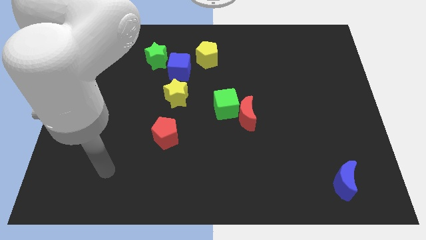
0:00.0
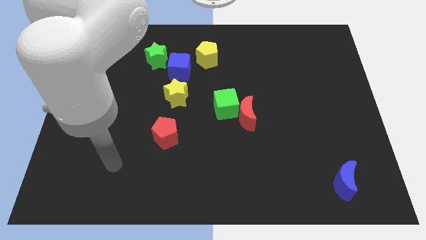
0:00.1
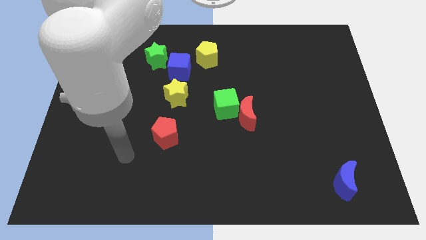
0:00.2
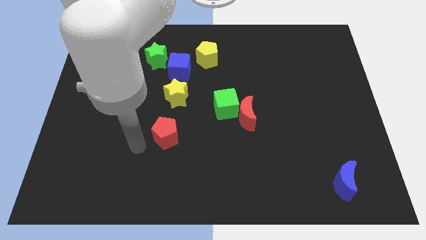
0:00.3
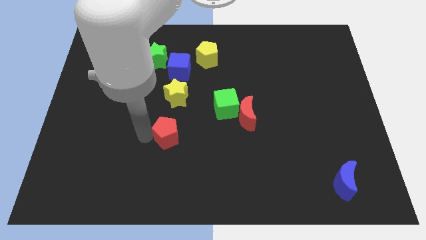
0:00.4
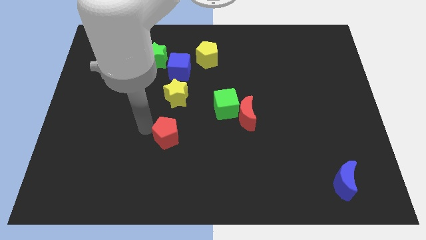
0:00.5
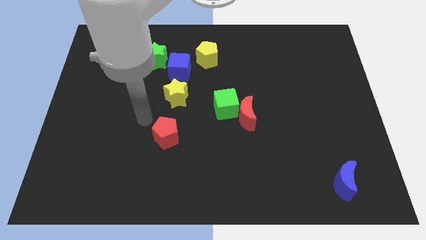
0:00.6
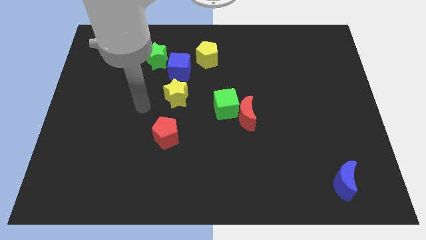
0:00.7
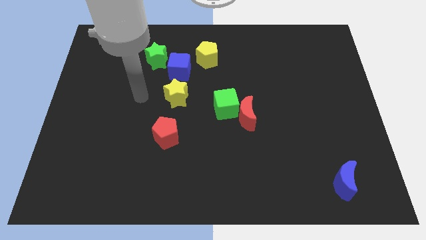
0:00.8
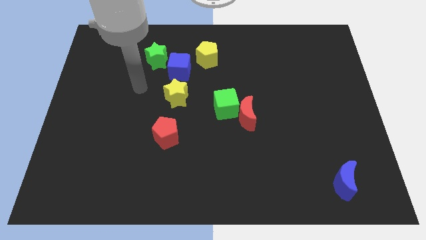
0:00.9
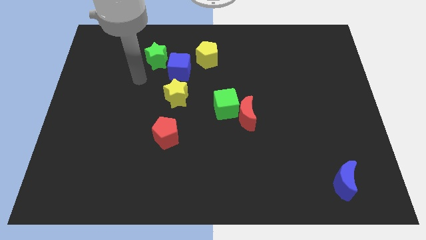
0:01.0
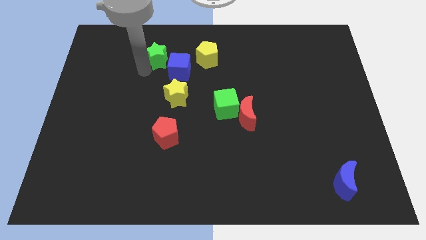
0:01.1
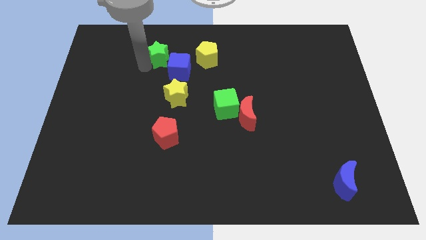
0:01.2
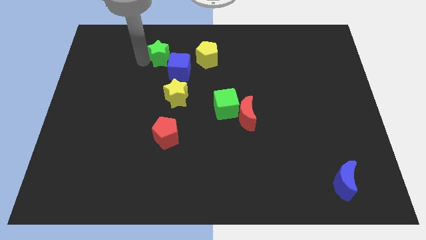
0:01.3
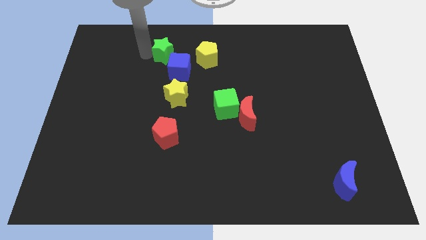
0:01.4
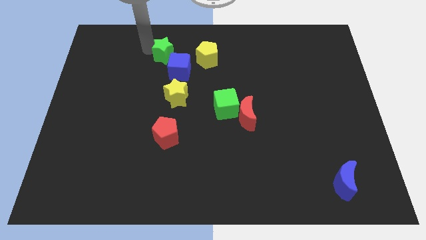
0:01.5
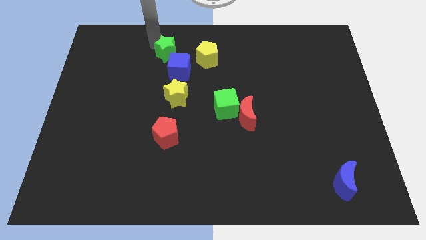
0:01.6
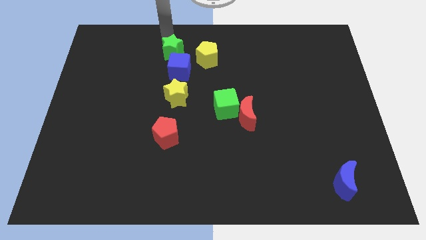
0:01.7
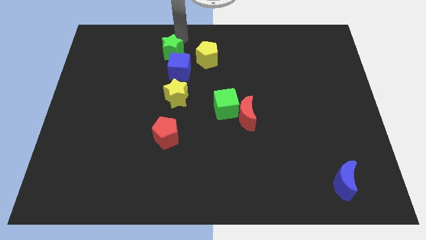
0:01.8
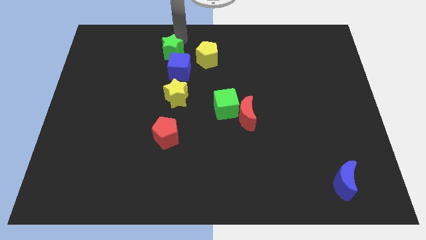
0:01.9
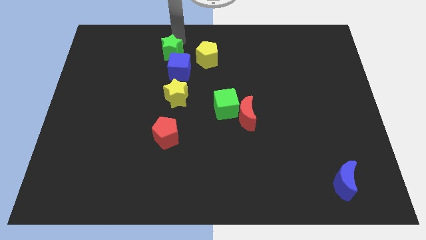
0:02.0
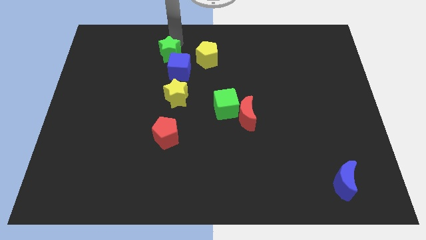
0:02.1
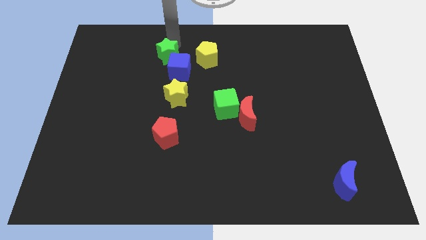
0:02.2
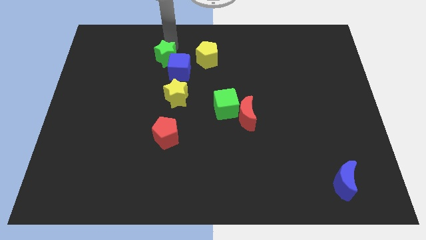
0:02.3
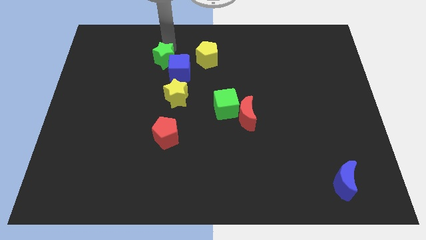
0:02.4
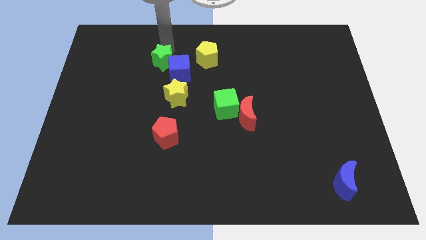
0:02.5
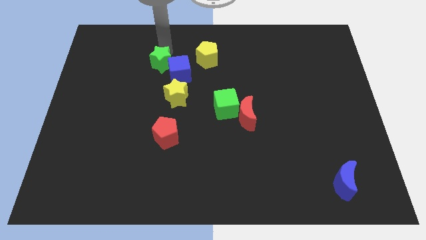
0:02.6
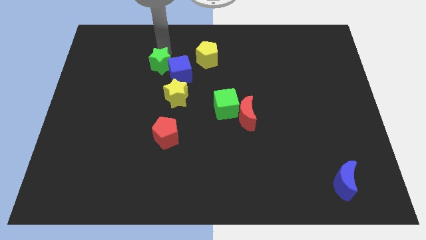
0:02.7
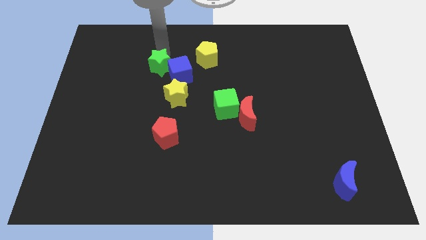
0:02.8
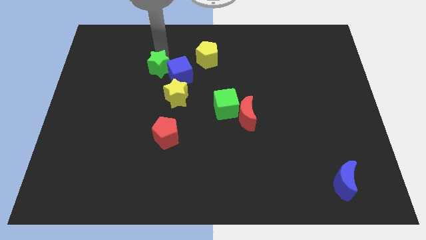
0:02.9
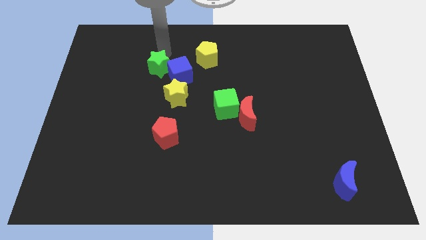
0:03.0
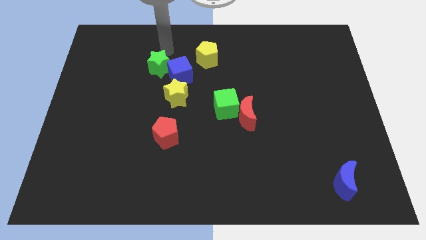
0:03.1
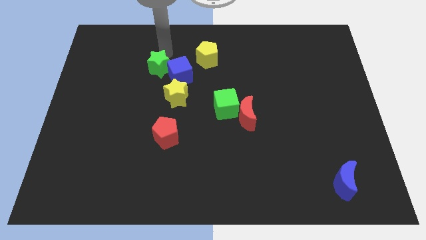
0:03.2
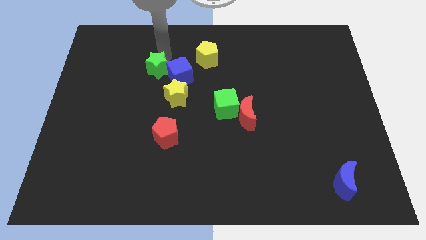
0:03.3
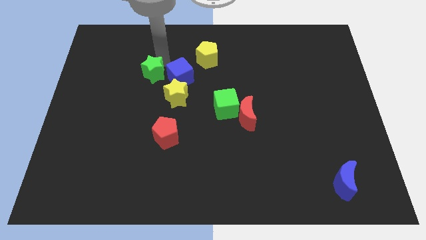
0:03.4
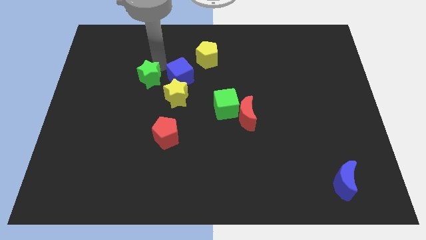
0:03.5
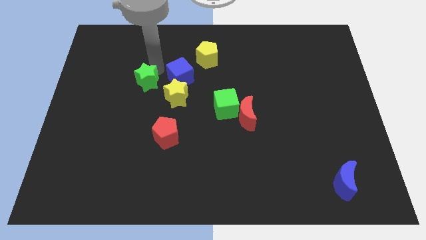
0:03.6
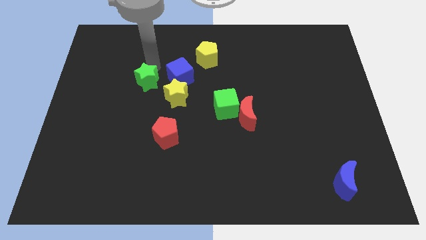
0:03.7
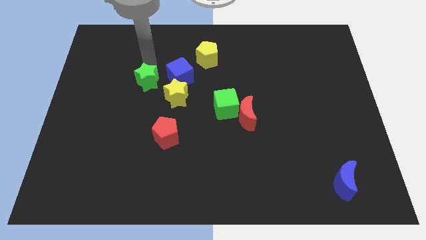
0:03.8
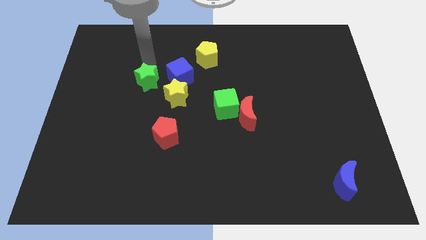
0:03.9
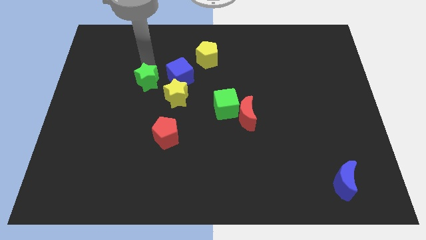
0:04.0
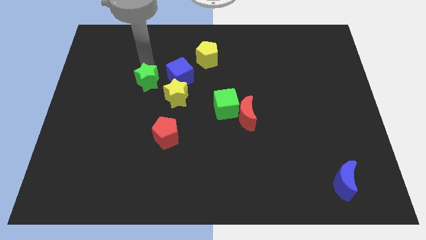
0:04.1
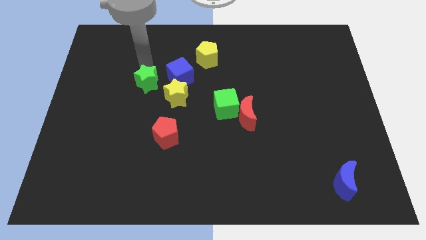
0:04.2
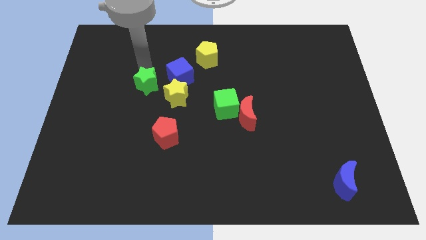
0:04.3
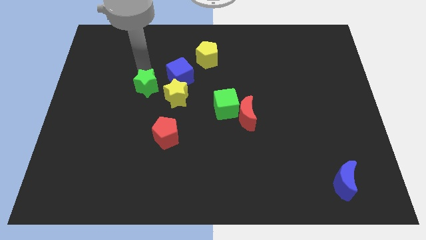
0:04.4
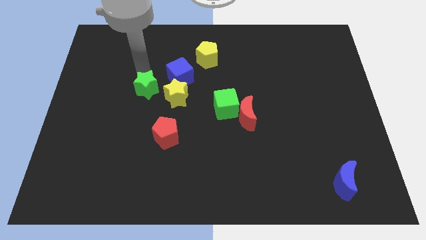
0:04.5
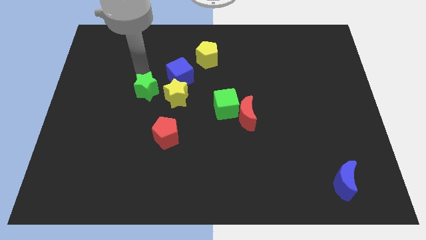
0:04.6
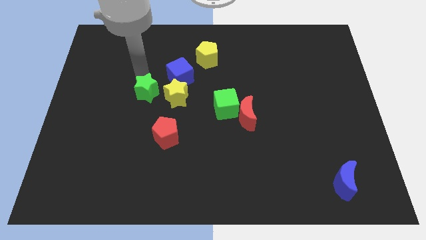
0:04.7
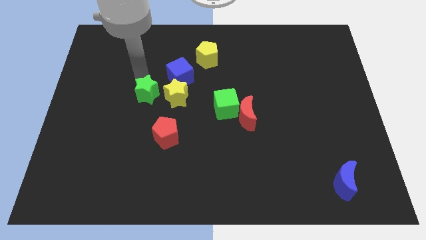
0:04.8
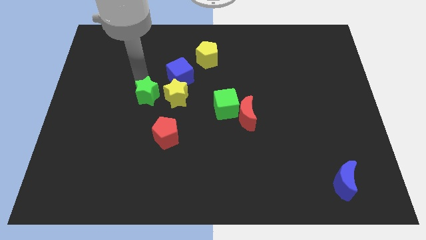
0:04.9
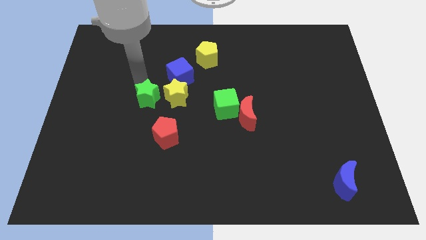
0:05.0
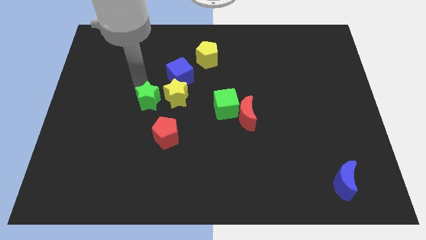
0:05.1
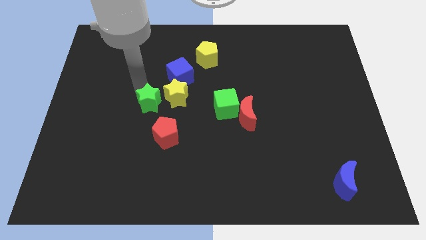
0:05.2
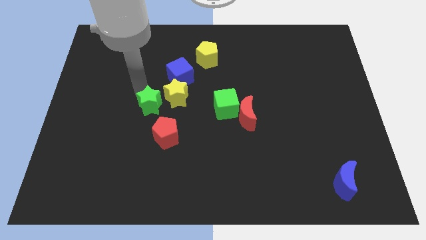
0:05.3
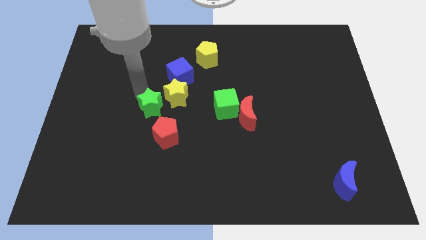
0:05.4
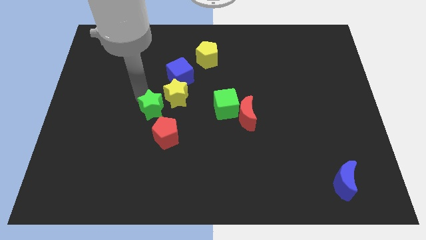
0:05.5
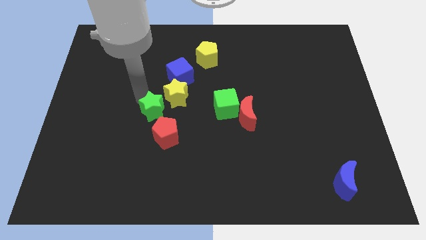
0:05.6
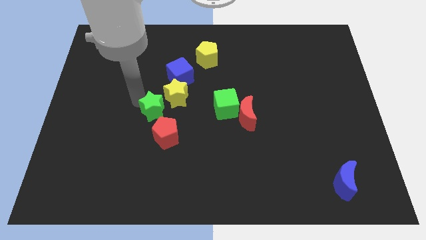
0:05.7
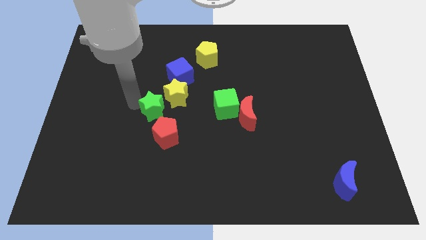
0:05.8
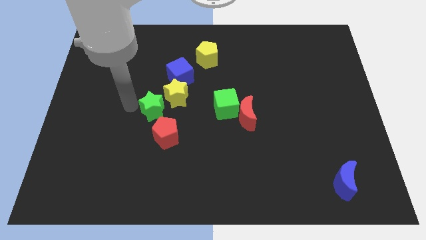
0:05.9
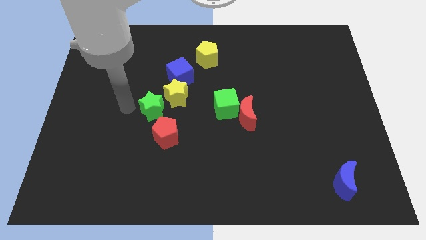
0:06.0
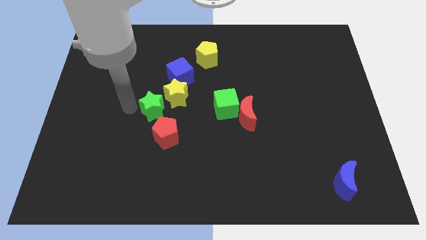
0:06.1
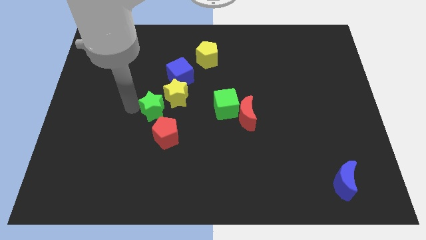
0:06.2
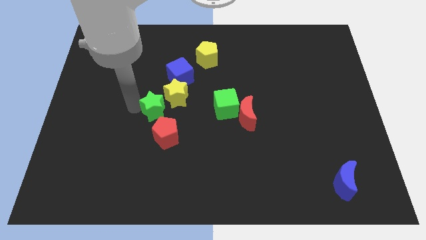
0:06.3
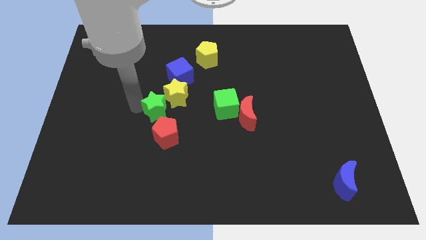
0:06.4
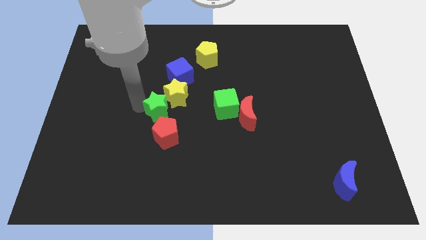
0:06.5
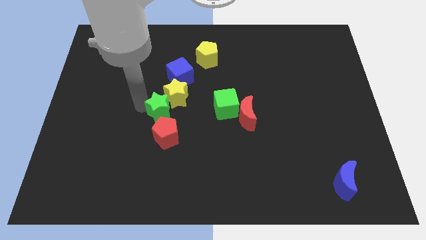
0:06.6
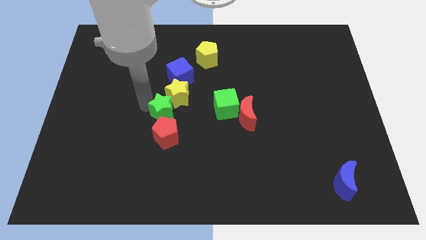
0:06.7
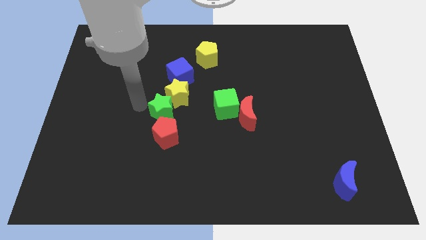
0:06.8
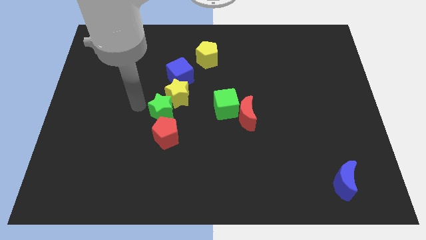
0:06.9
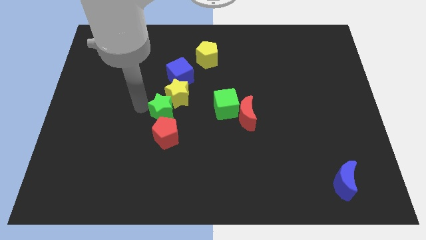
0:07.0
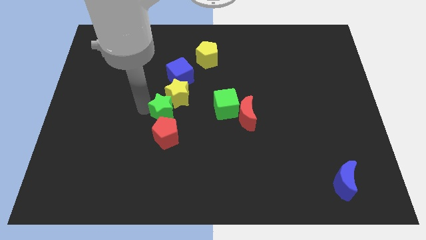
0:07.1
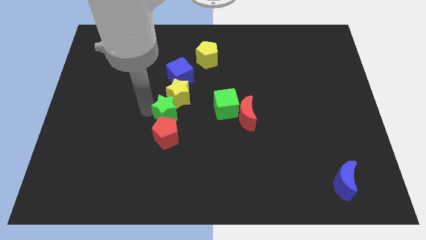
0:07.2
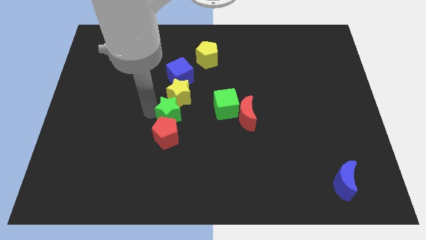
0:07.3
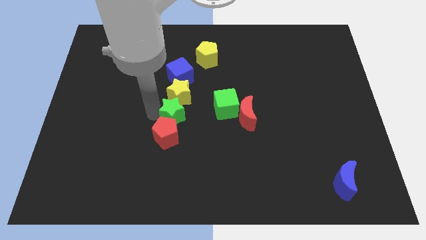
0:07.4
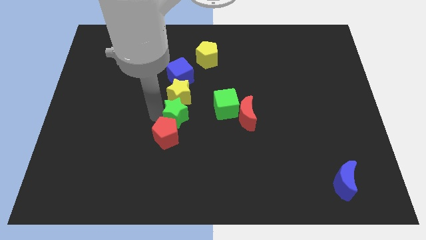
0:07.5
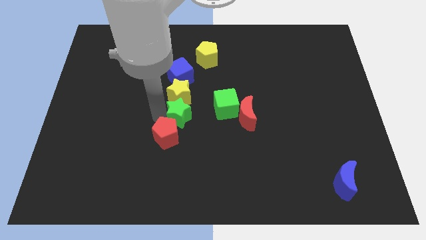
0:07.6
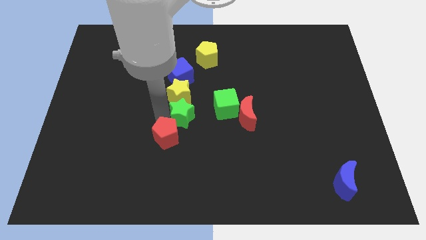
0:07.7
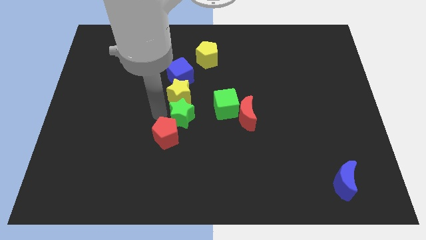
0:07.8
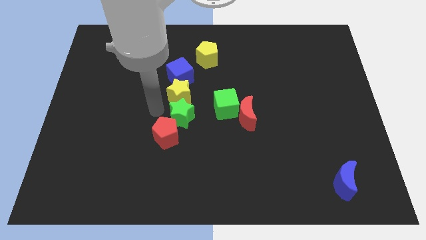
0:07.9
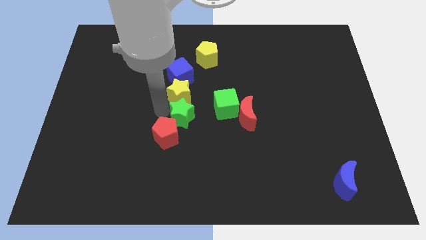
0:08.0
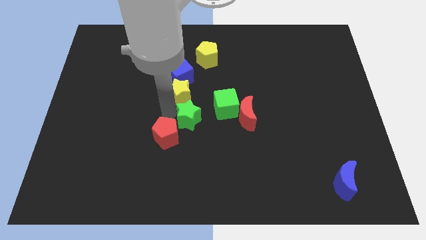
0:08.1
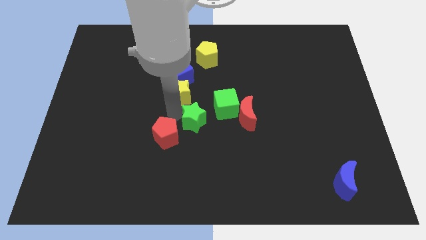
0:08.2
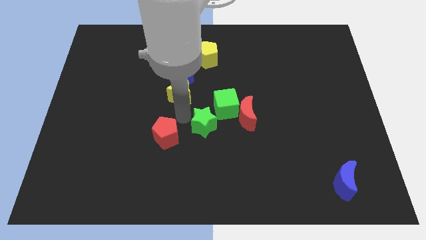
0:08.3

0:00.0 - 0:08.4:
move the green star down and then to the right
